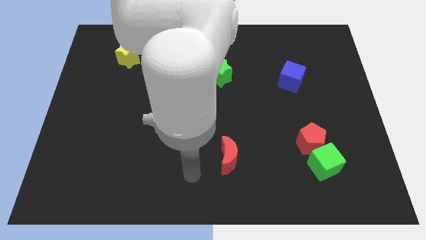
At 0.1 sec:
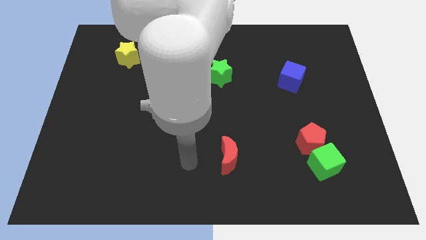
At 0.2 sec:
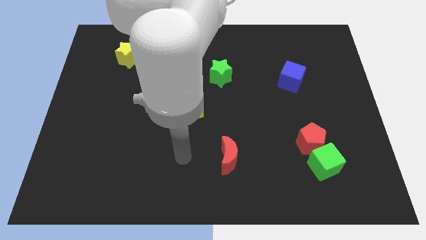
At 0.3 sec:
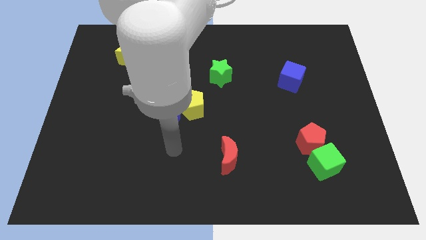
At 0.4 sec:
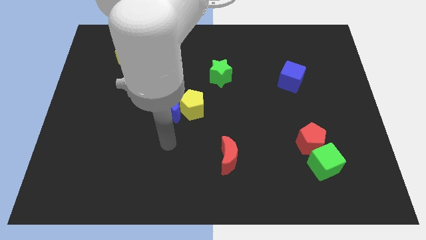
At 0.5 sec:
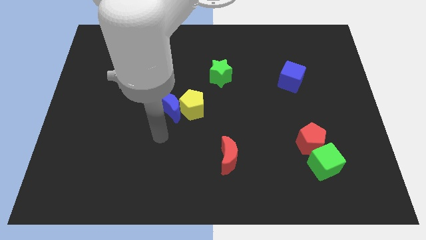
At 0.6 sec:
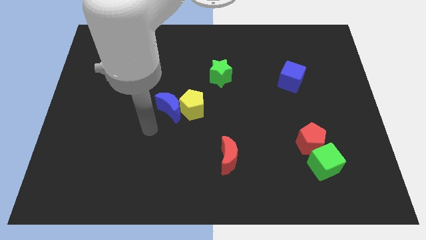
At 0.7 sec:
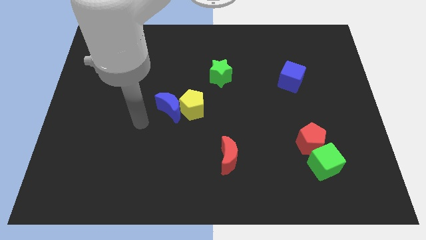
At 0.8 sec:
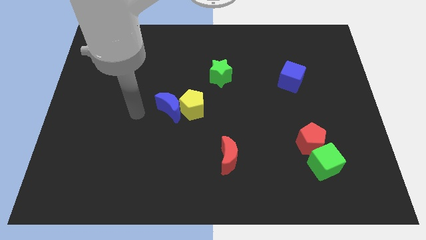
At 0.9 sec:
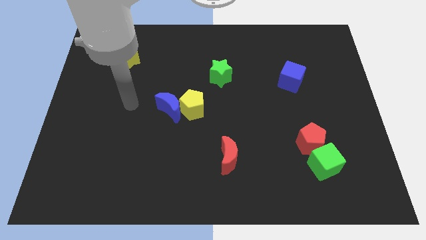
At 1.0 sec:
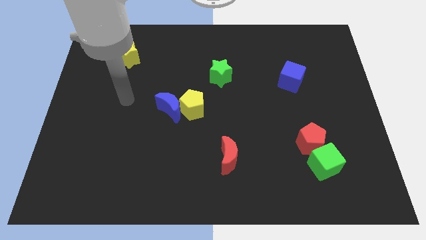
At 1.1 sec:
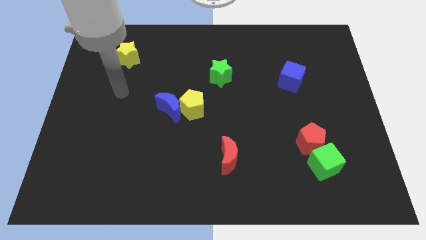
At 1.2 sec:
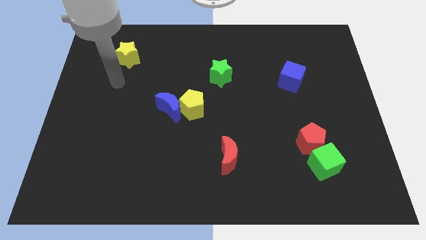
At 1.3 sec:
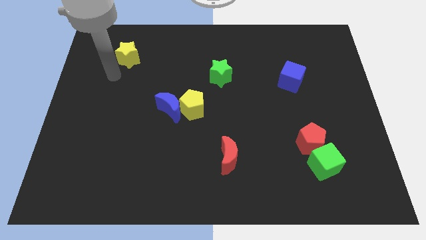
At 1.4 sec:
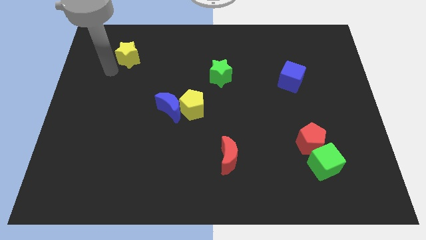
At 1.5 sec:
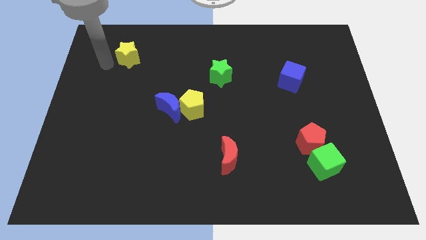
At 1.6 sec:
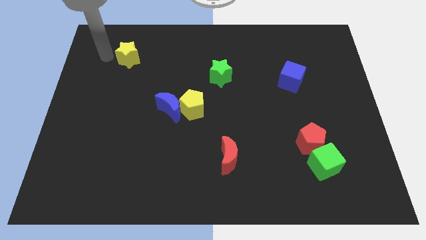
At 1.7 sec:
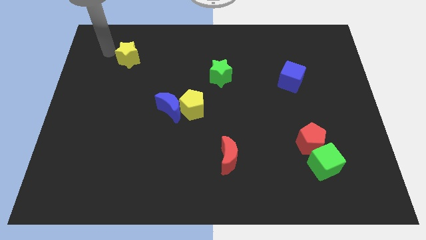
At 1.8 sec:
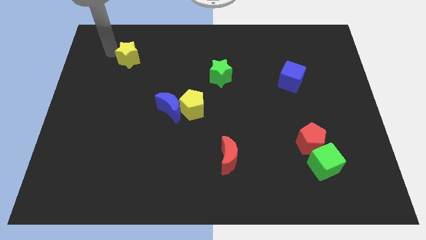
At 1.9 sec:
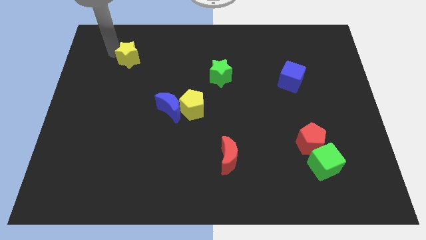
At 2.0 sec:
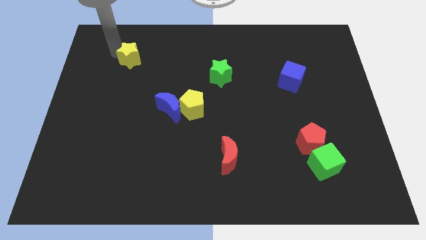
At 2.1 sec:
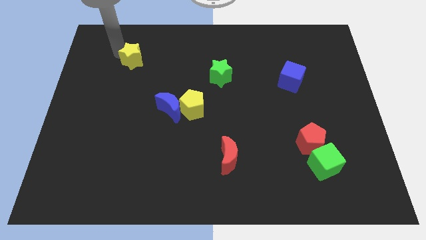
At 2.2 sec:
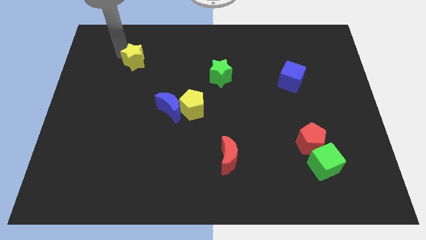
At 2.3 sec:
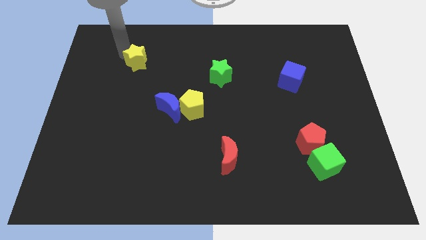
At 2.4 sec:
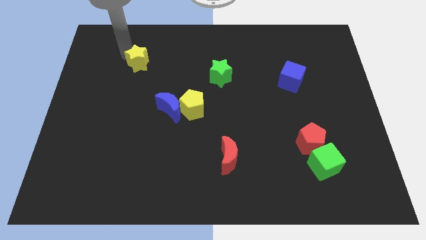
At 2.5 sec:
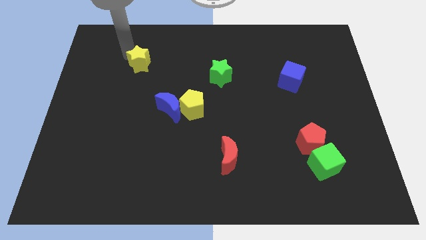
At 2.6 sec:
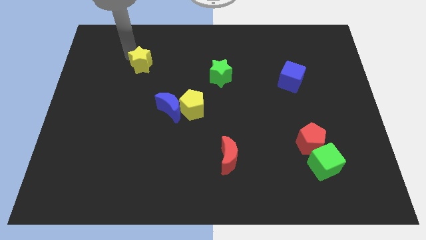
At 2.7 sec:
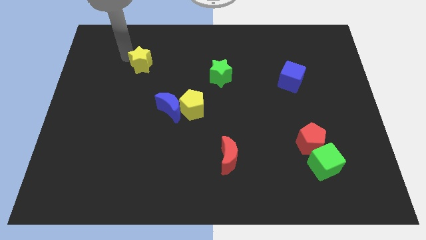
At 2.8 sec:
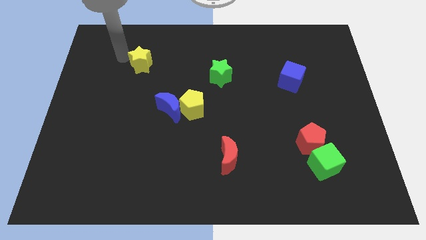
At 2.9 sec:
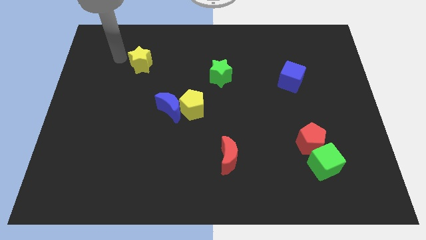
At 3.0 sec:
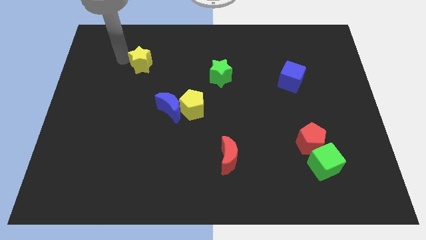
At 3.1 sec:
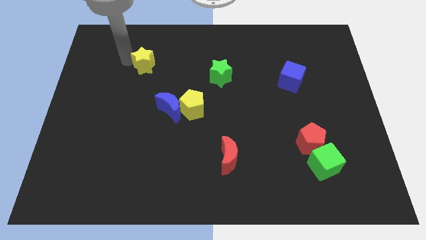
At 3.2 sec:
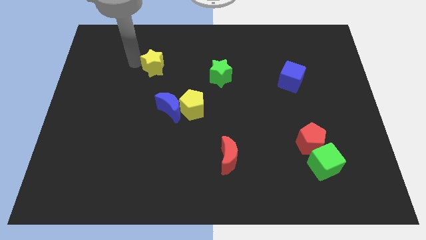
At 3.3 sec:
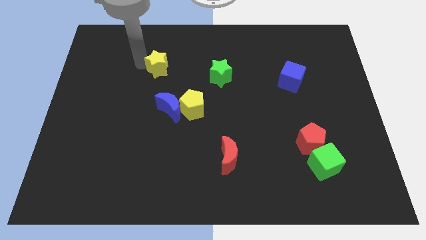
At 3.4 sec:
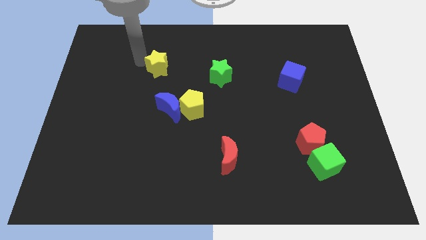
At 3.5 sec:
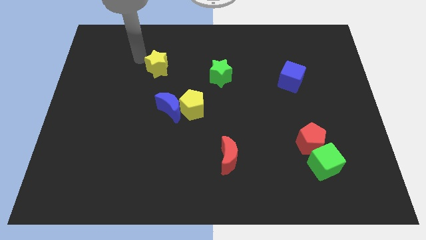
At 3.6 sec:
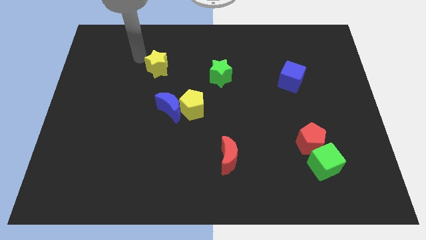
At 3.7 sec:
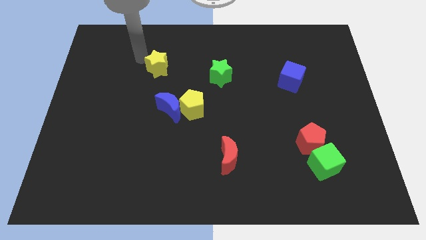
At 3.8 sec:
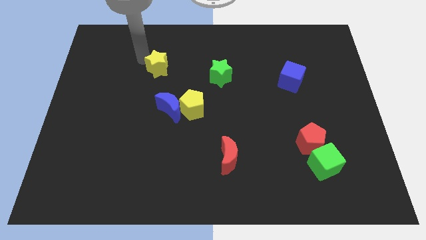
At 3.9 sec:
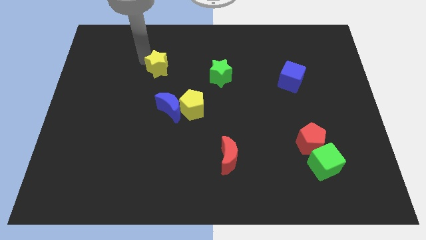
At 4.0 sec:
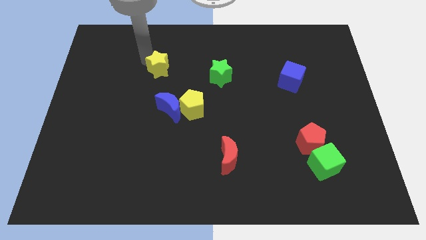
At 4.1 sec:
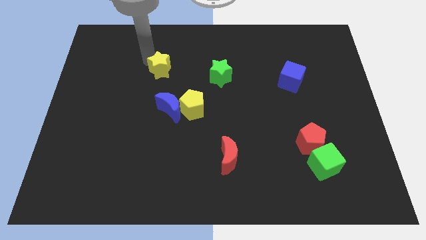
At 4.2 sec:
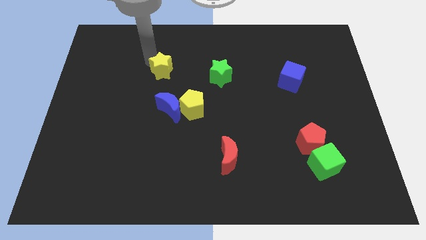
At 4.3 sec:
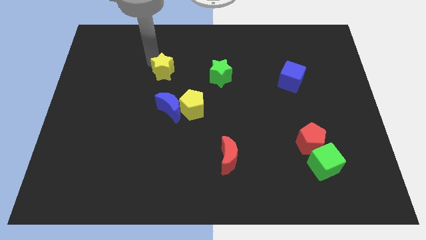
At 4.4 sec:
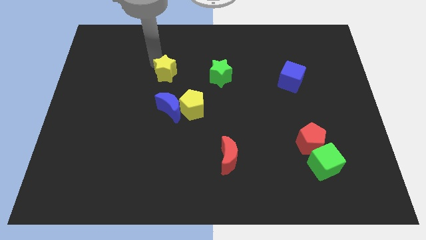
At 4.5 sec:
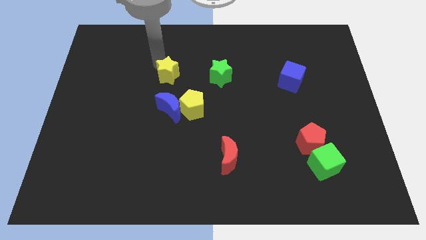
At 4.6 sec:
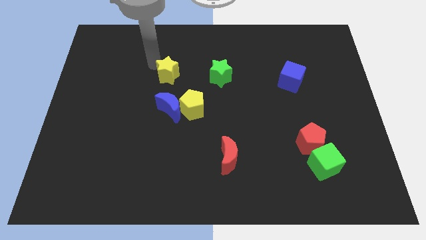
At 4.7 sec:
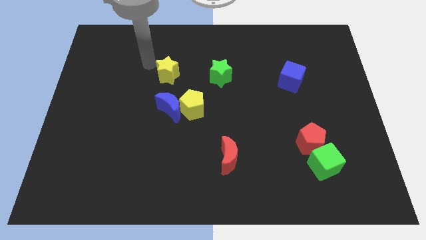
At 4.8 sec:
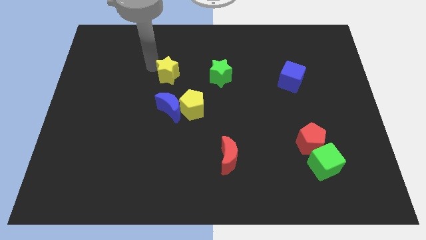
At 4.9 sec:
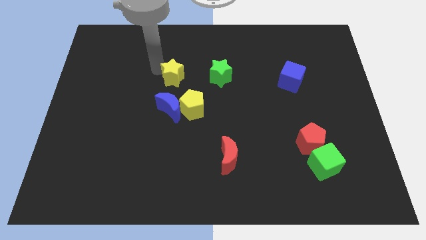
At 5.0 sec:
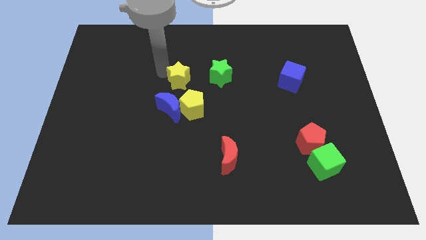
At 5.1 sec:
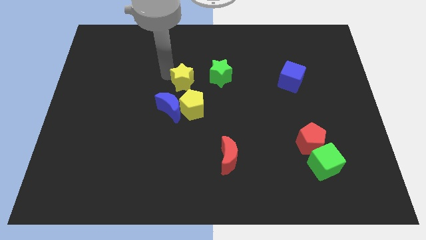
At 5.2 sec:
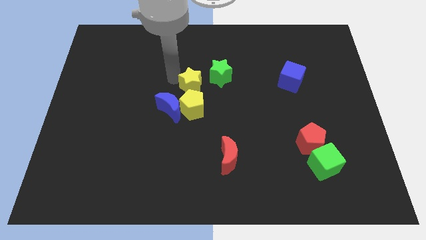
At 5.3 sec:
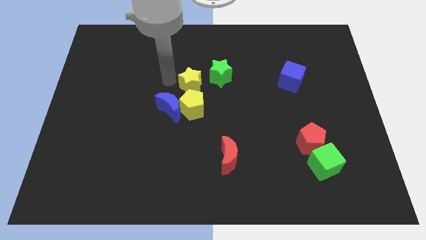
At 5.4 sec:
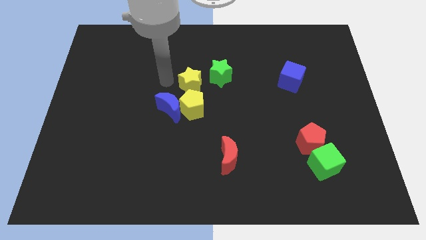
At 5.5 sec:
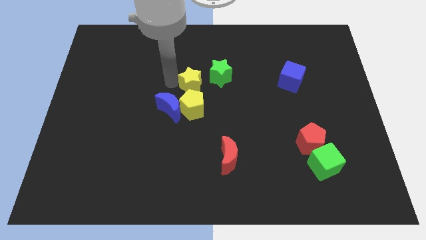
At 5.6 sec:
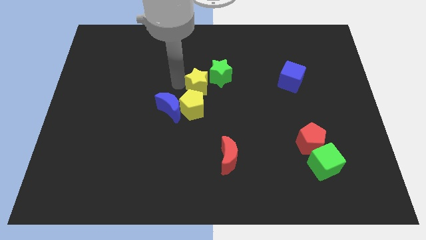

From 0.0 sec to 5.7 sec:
slide the yellow star diagonally up and to the right of the yellow pentagon

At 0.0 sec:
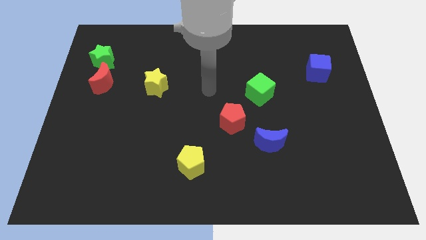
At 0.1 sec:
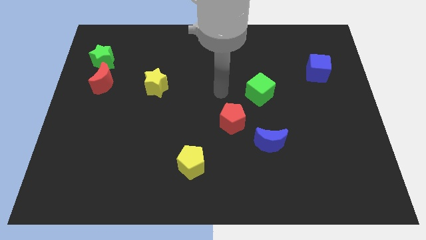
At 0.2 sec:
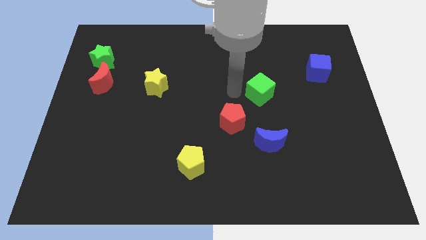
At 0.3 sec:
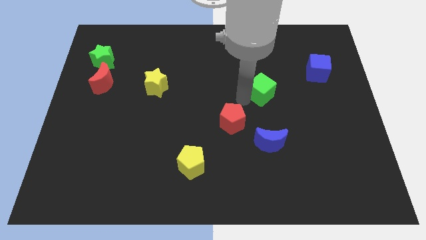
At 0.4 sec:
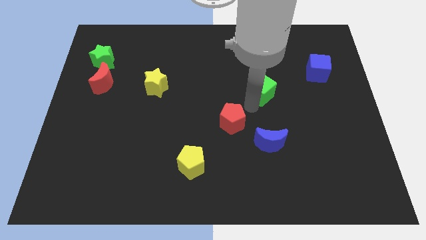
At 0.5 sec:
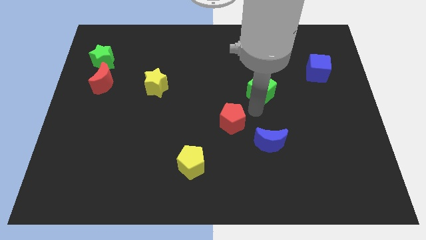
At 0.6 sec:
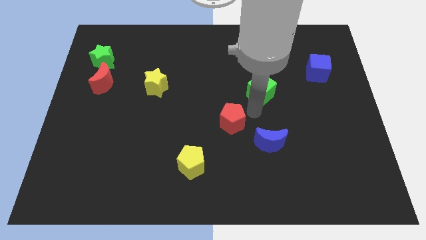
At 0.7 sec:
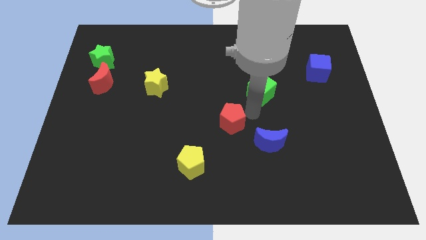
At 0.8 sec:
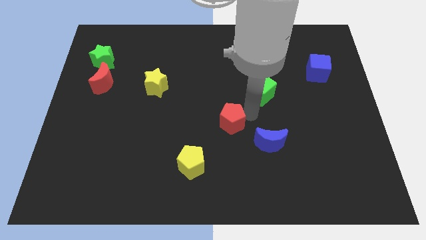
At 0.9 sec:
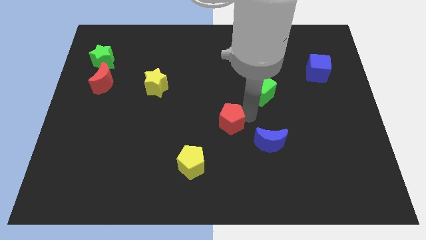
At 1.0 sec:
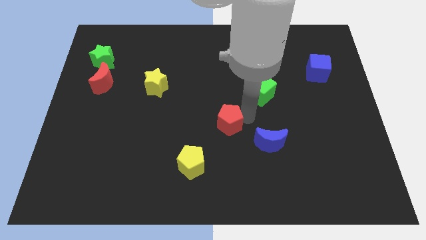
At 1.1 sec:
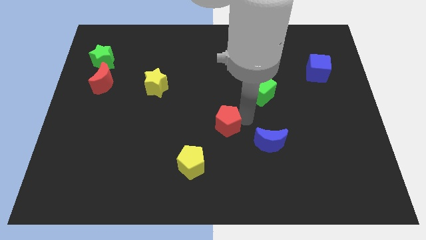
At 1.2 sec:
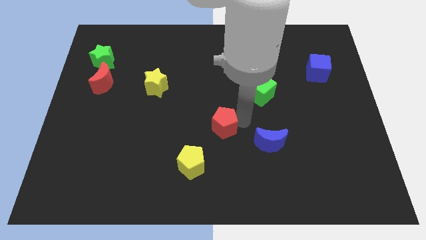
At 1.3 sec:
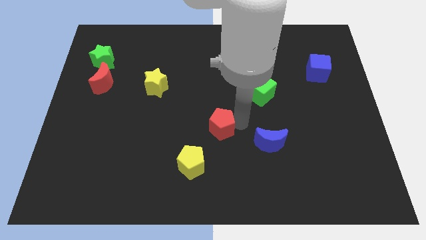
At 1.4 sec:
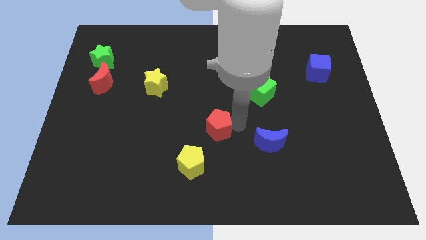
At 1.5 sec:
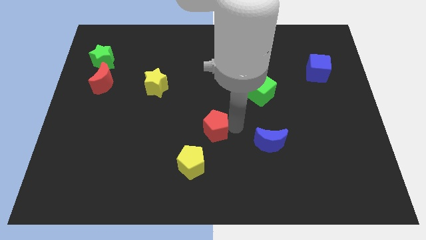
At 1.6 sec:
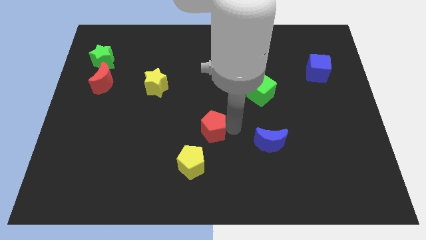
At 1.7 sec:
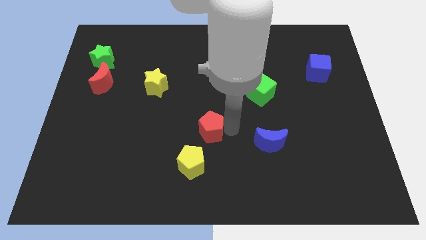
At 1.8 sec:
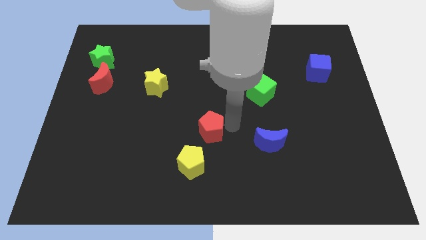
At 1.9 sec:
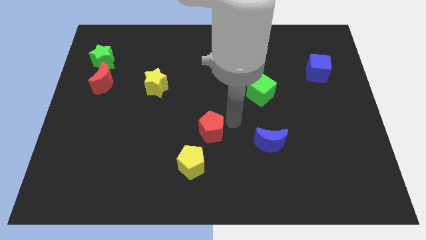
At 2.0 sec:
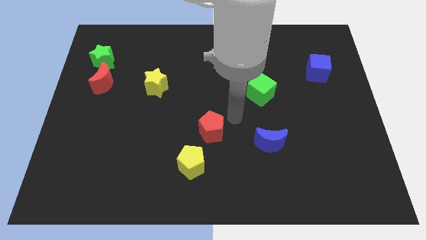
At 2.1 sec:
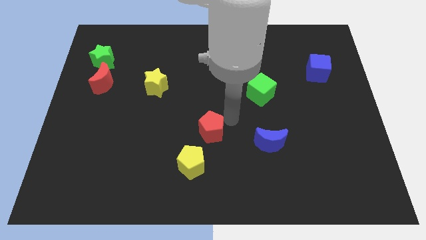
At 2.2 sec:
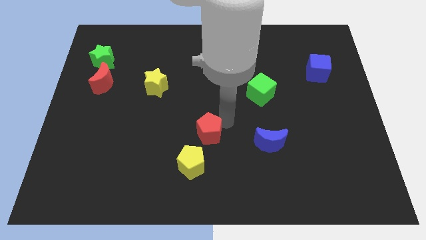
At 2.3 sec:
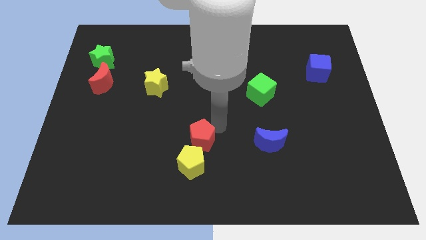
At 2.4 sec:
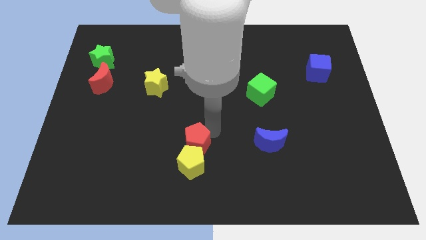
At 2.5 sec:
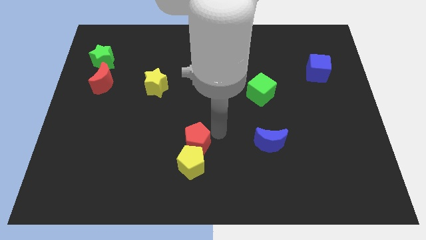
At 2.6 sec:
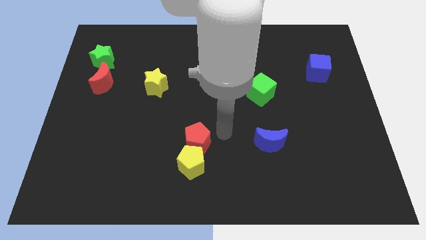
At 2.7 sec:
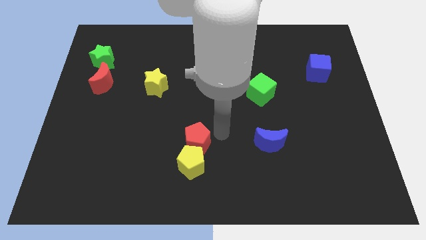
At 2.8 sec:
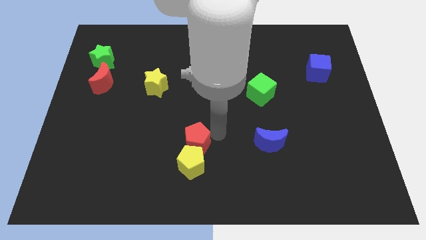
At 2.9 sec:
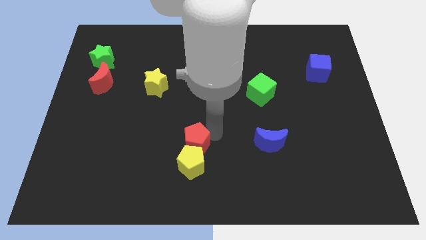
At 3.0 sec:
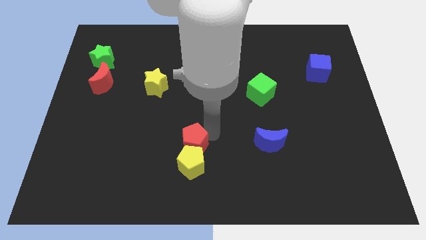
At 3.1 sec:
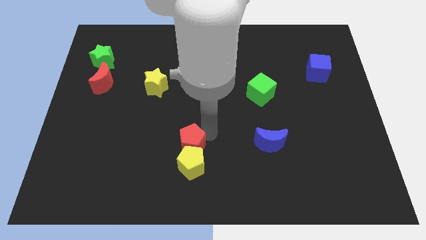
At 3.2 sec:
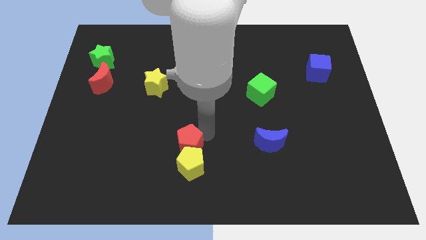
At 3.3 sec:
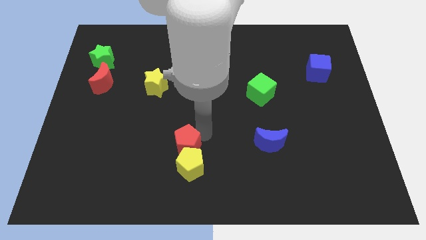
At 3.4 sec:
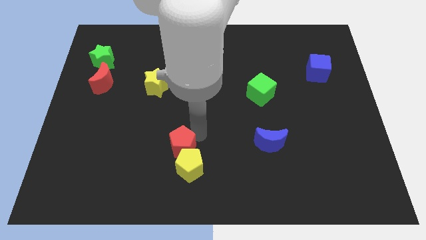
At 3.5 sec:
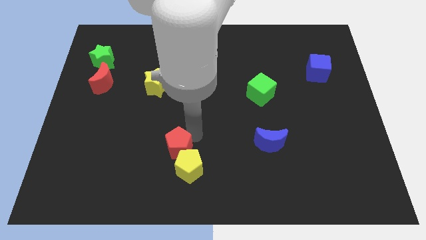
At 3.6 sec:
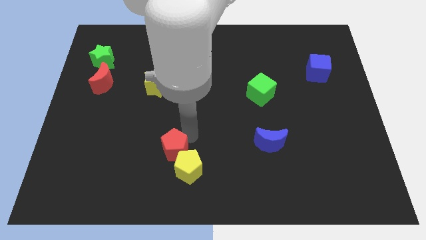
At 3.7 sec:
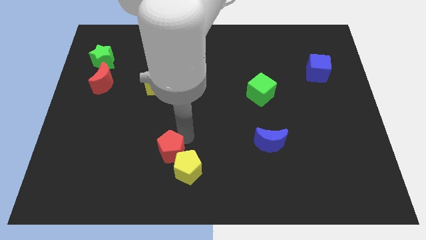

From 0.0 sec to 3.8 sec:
slide the red pentagon to the left side of the yellow pentagon
